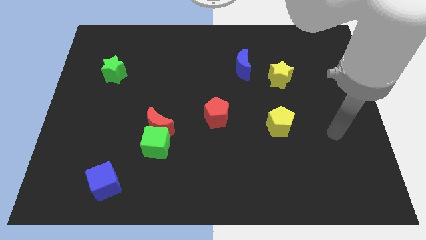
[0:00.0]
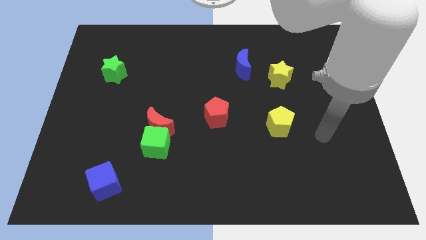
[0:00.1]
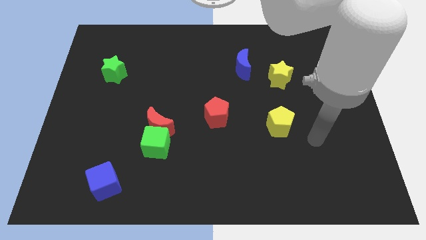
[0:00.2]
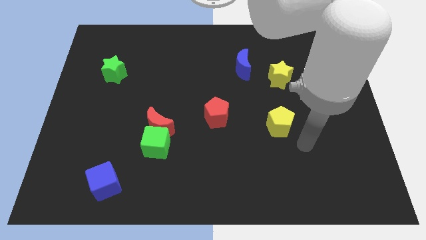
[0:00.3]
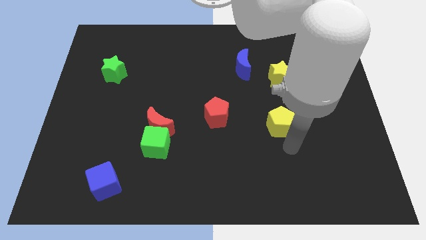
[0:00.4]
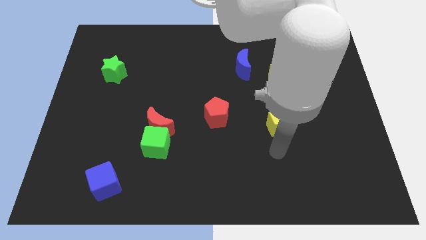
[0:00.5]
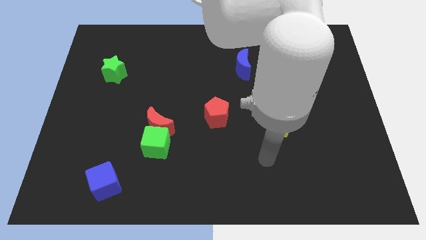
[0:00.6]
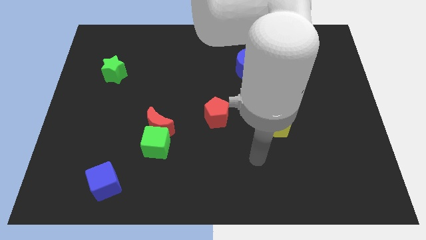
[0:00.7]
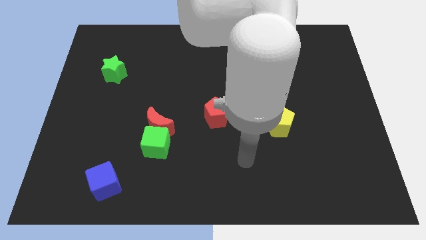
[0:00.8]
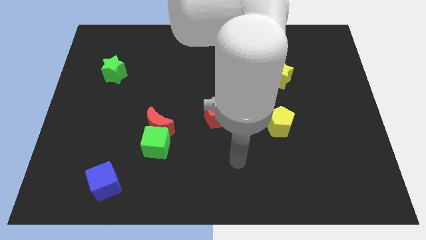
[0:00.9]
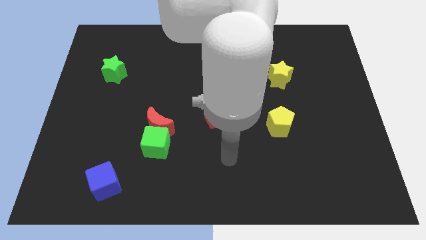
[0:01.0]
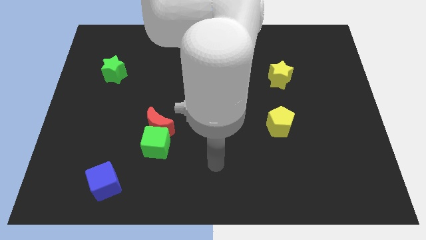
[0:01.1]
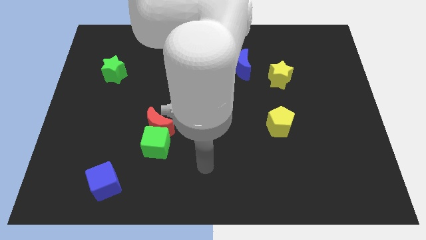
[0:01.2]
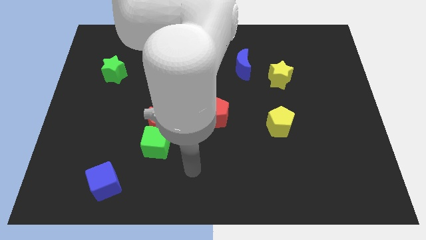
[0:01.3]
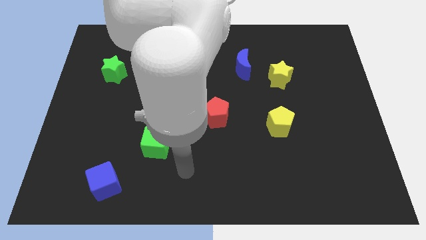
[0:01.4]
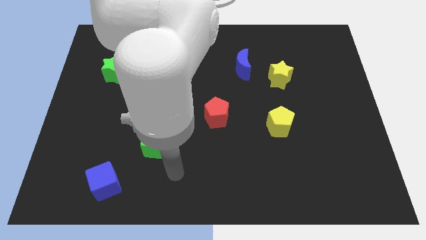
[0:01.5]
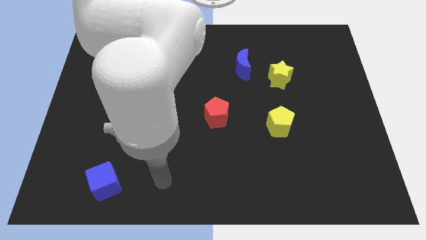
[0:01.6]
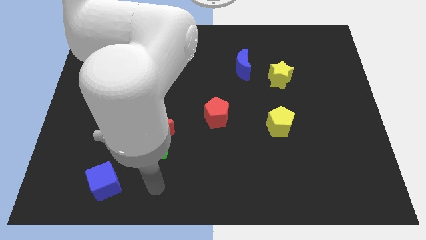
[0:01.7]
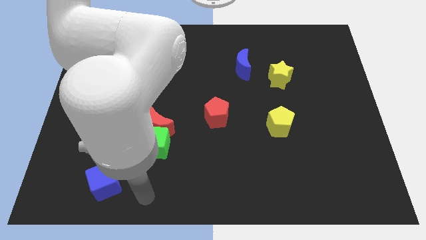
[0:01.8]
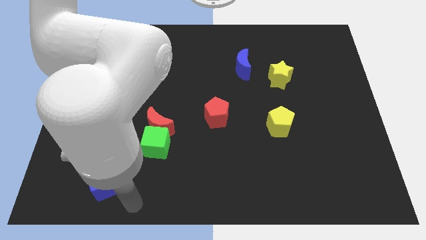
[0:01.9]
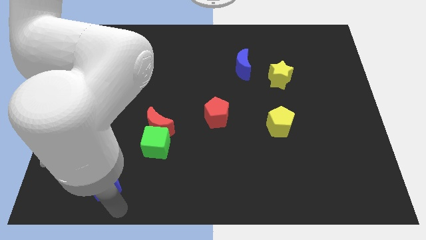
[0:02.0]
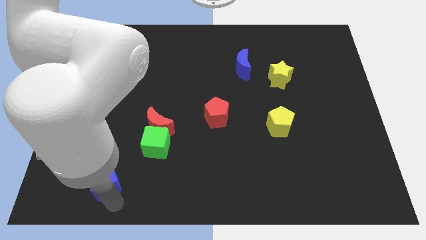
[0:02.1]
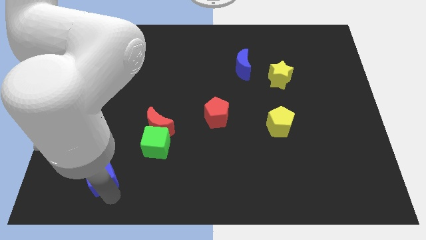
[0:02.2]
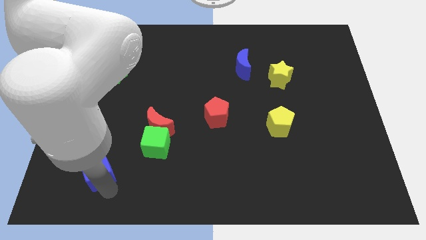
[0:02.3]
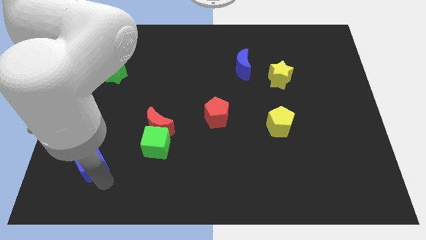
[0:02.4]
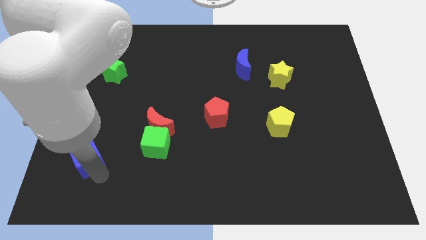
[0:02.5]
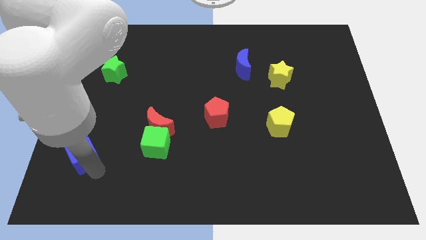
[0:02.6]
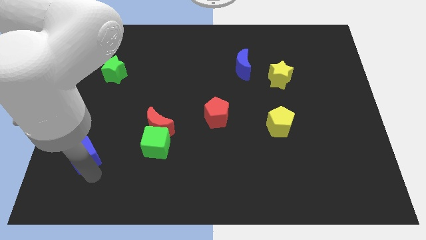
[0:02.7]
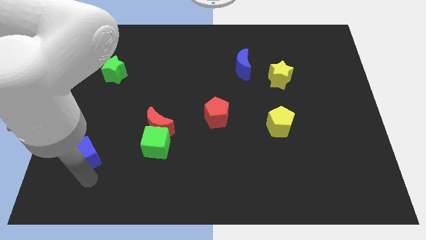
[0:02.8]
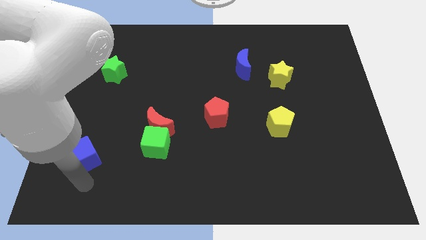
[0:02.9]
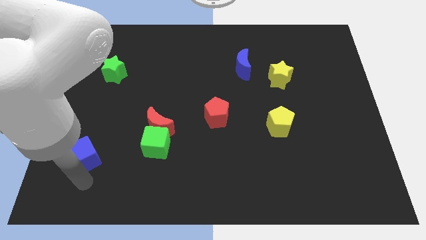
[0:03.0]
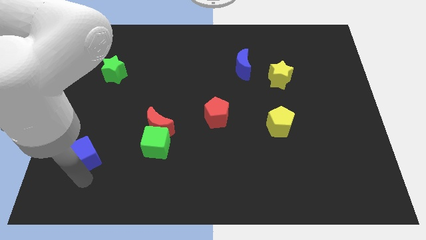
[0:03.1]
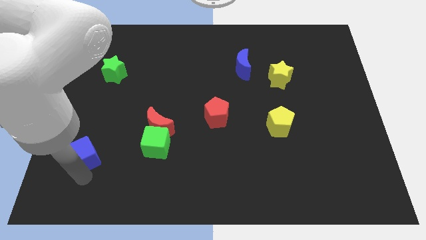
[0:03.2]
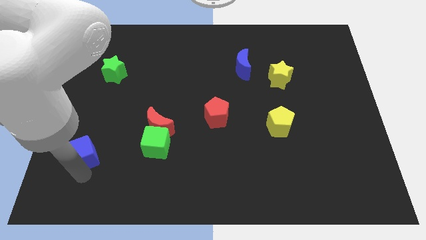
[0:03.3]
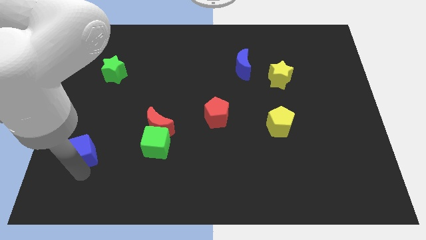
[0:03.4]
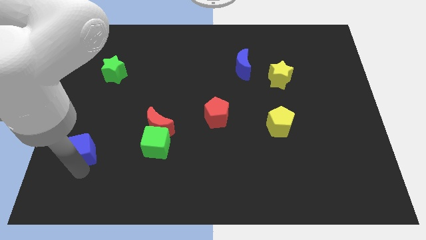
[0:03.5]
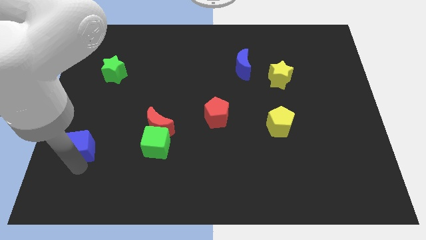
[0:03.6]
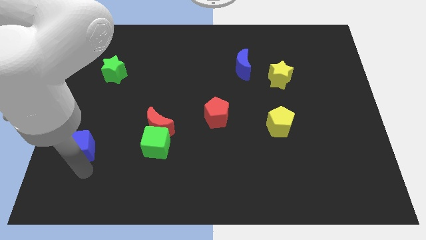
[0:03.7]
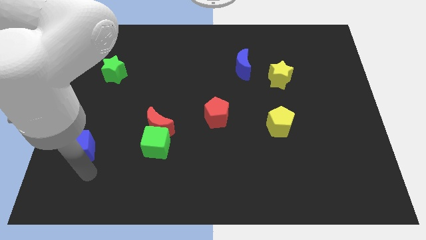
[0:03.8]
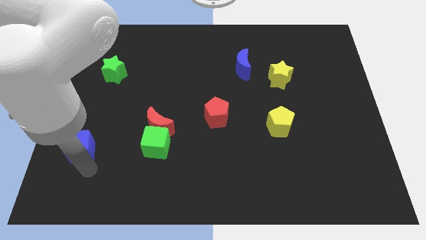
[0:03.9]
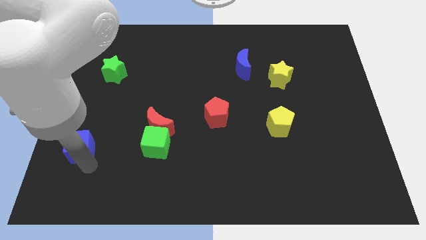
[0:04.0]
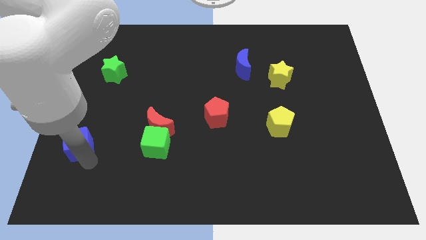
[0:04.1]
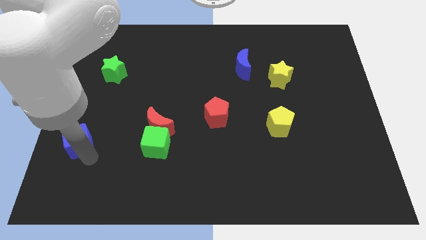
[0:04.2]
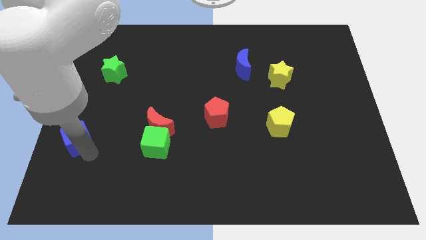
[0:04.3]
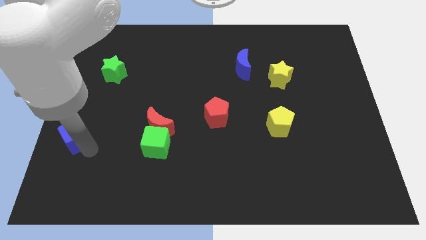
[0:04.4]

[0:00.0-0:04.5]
put the blue cube to the left side

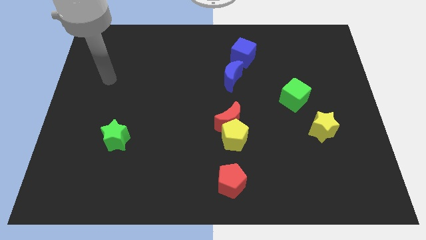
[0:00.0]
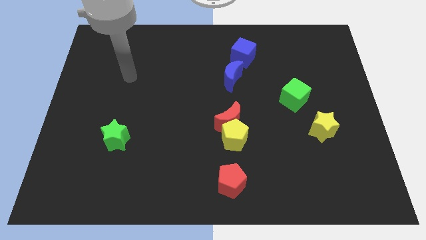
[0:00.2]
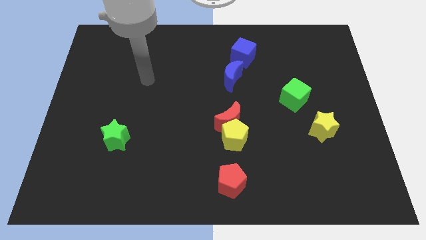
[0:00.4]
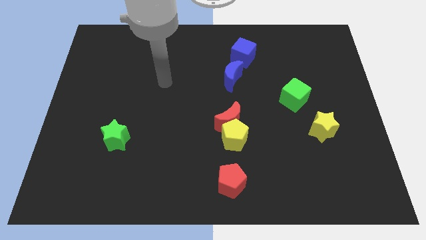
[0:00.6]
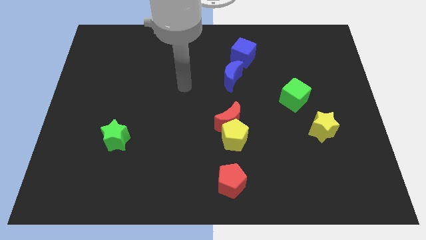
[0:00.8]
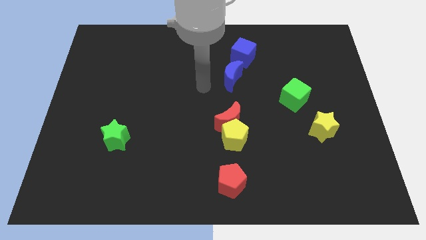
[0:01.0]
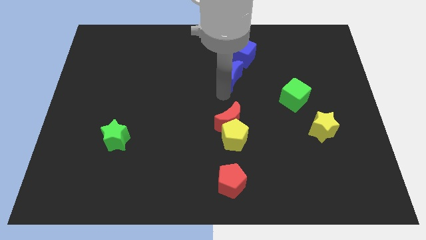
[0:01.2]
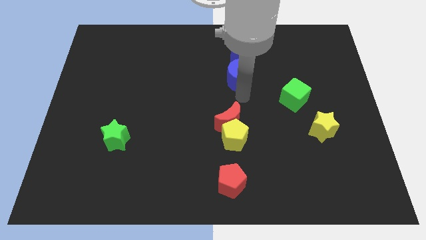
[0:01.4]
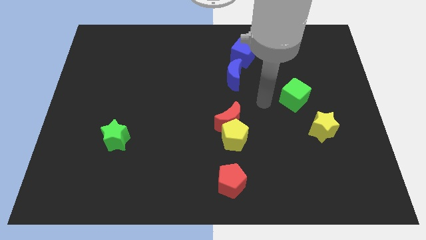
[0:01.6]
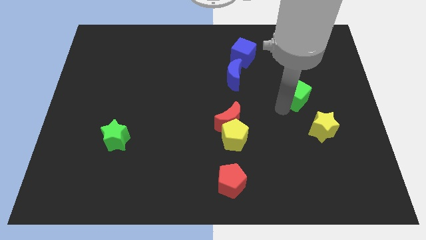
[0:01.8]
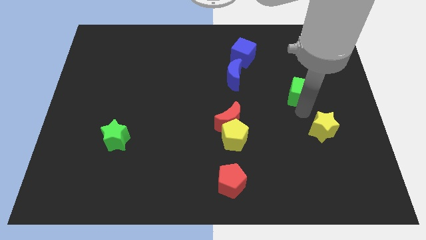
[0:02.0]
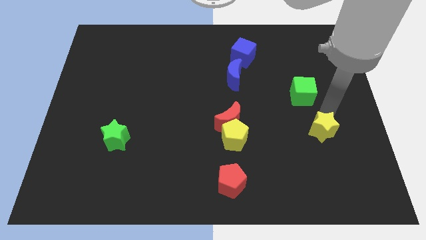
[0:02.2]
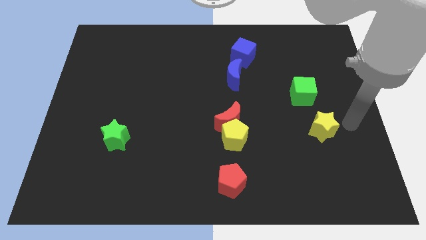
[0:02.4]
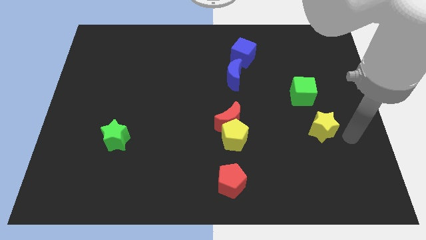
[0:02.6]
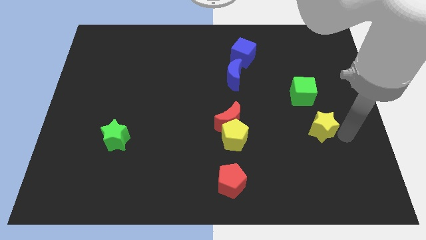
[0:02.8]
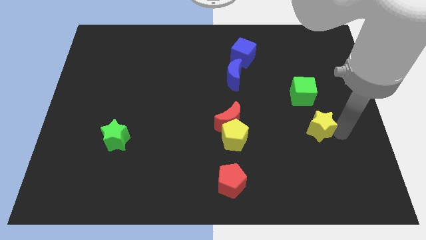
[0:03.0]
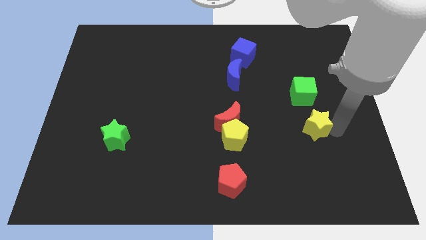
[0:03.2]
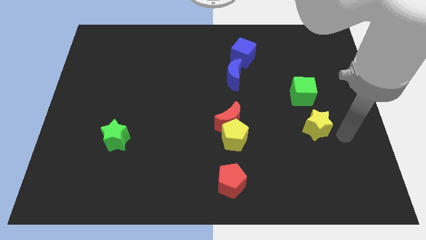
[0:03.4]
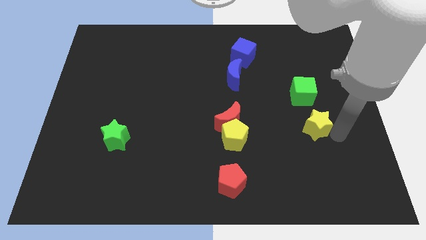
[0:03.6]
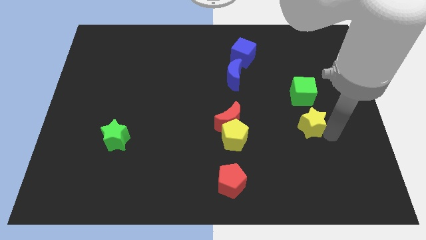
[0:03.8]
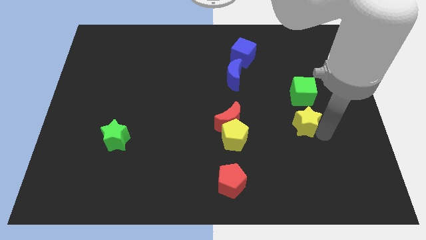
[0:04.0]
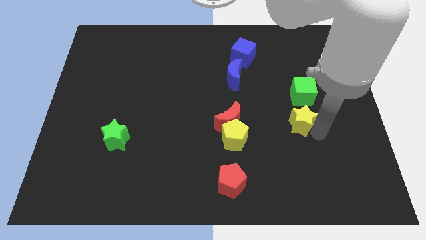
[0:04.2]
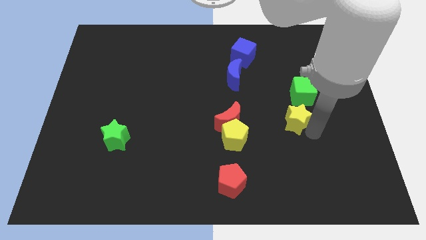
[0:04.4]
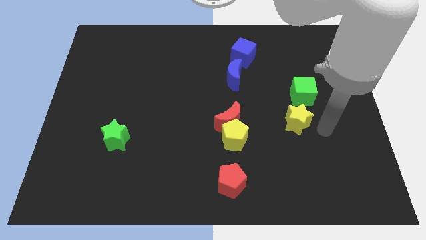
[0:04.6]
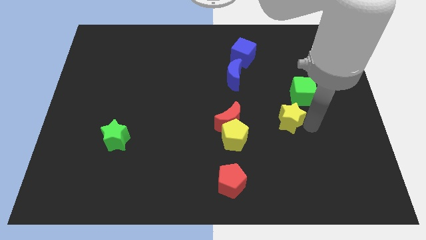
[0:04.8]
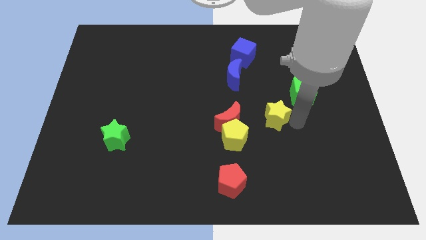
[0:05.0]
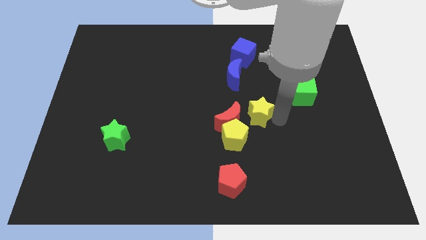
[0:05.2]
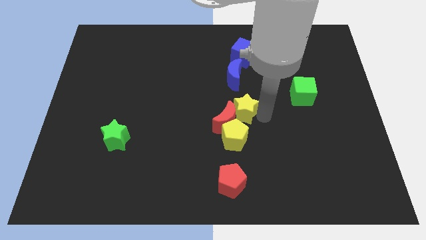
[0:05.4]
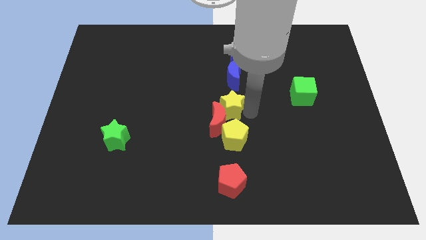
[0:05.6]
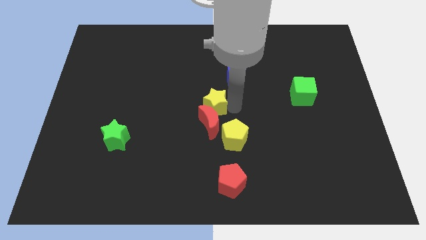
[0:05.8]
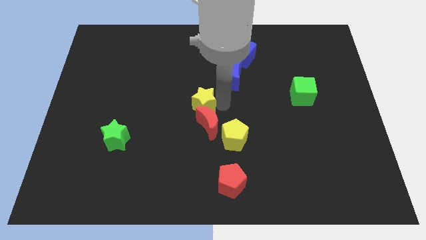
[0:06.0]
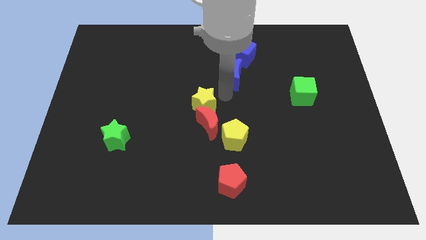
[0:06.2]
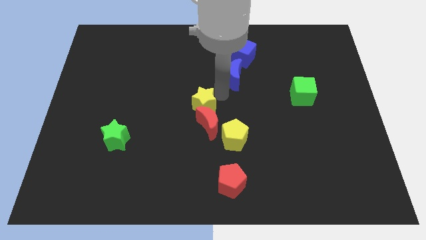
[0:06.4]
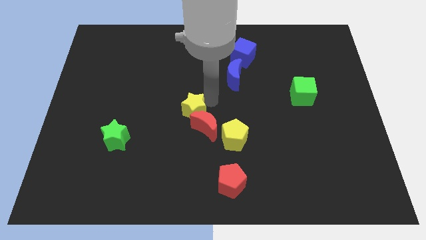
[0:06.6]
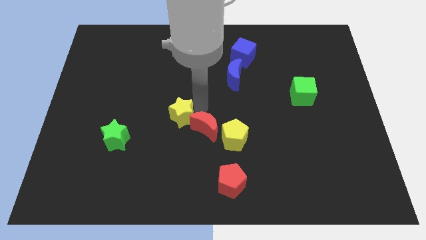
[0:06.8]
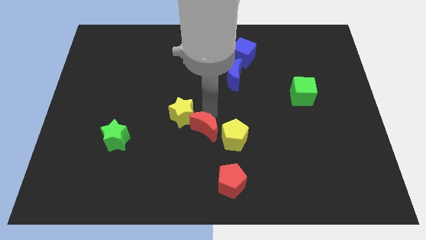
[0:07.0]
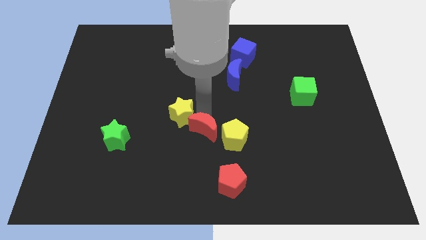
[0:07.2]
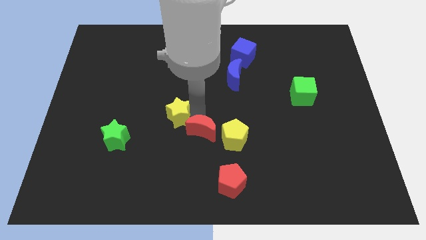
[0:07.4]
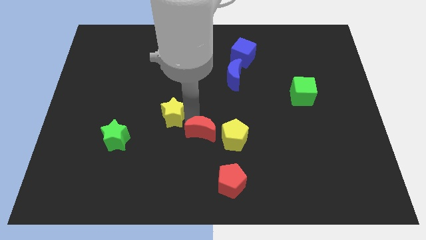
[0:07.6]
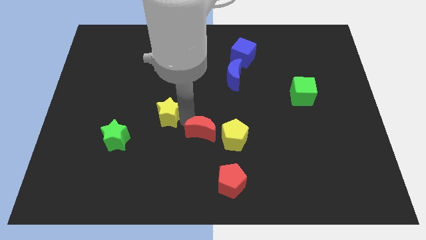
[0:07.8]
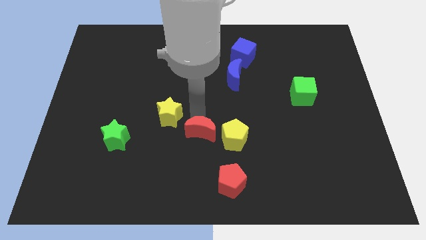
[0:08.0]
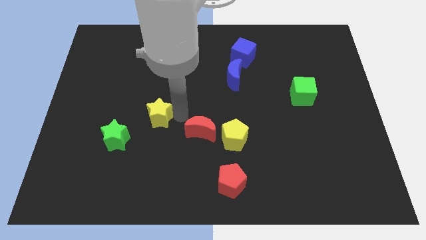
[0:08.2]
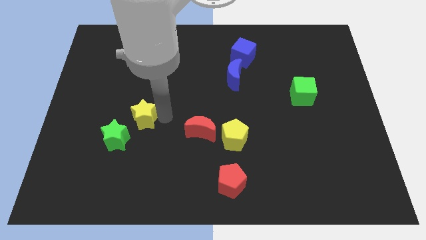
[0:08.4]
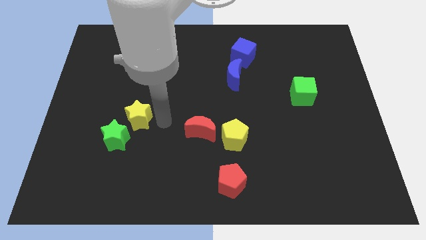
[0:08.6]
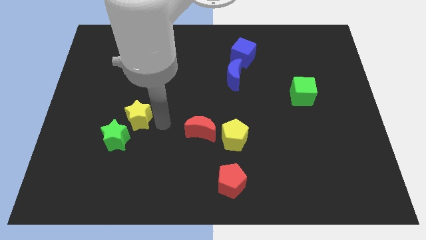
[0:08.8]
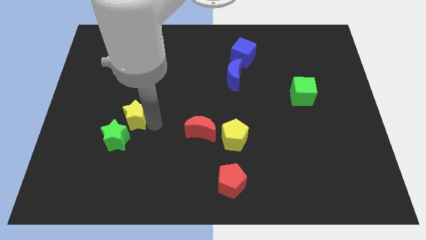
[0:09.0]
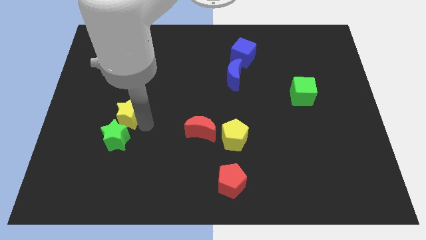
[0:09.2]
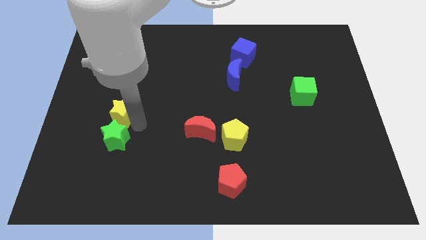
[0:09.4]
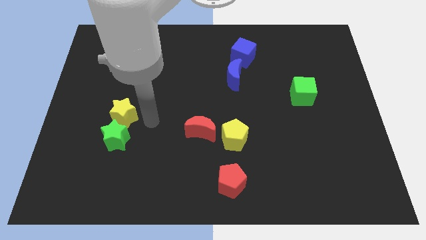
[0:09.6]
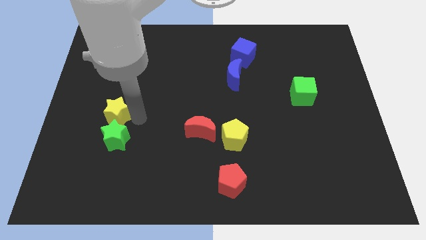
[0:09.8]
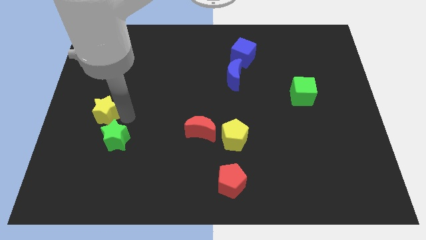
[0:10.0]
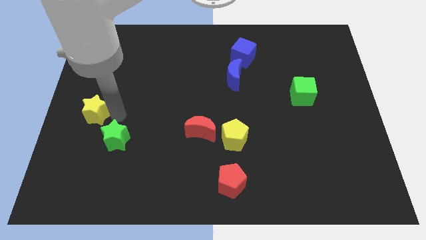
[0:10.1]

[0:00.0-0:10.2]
put the yellow star to the left side
